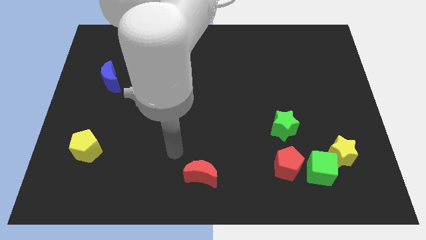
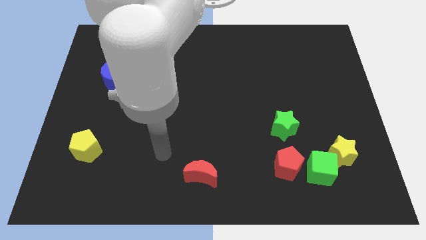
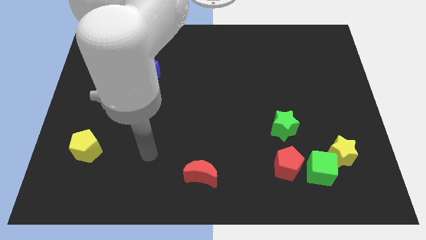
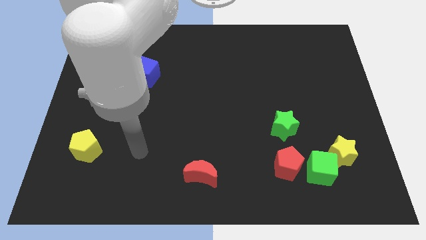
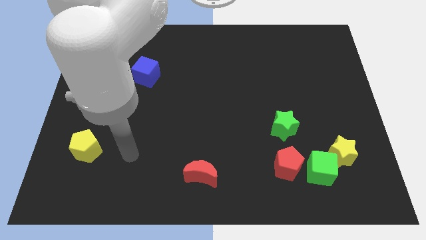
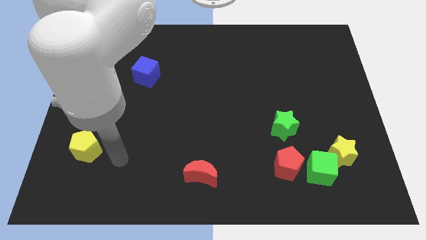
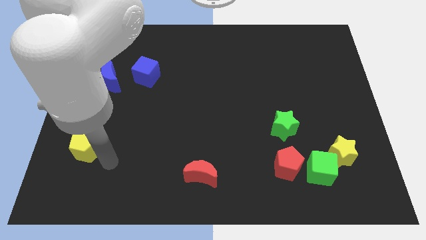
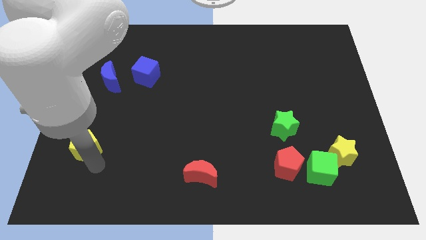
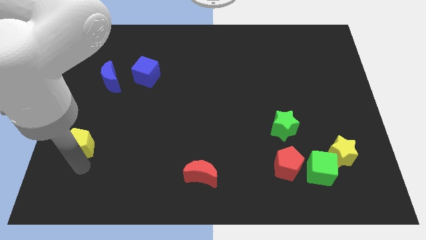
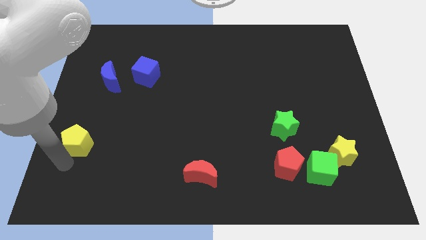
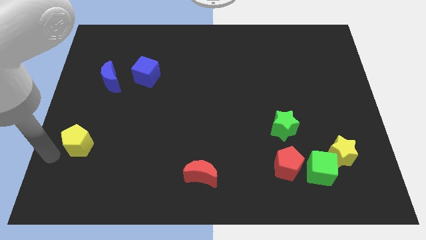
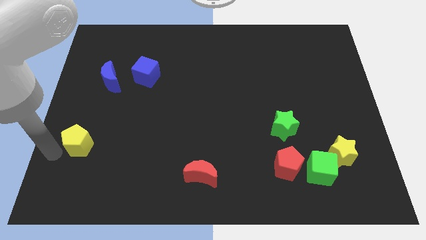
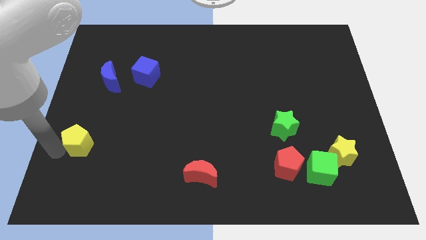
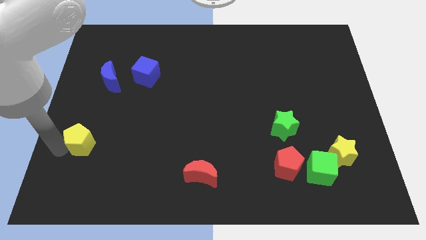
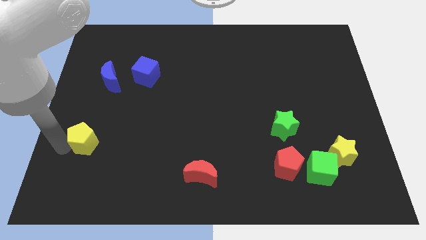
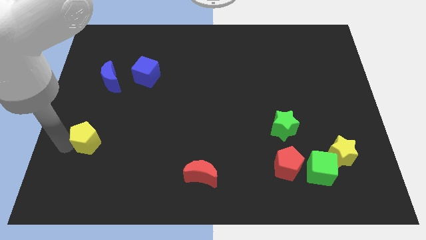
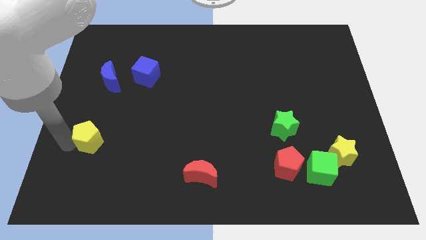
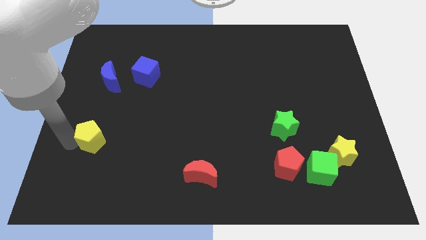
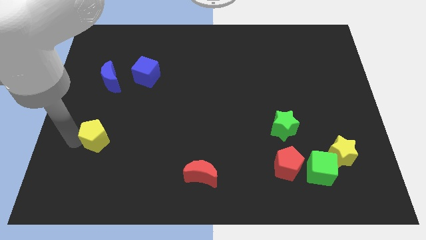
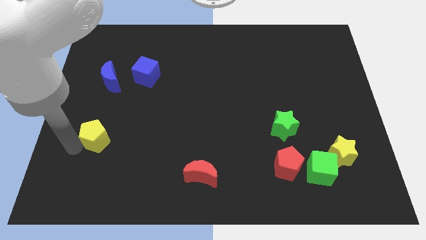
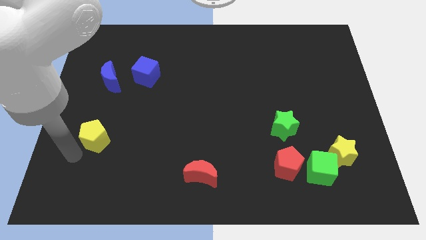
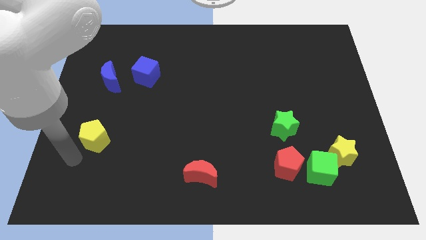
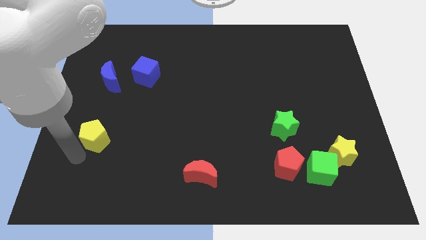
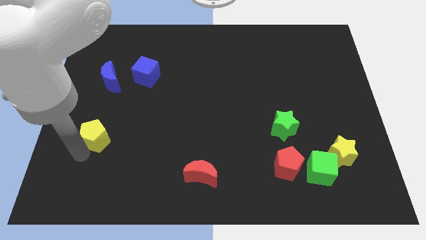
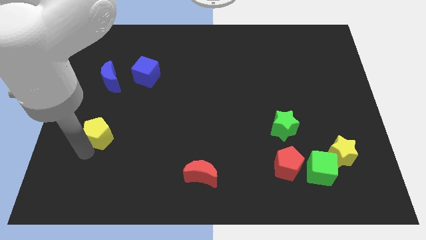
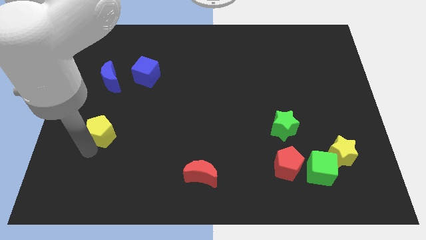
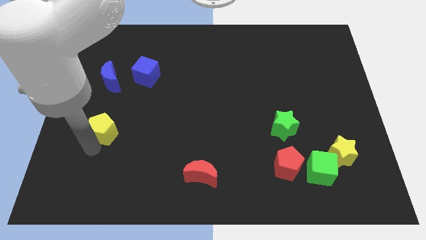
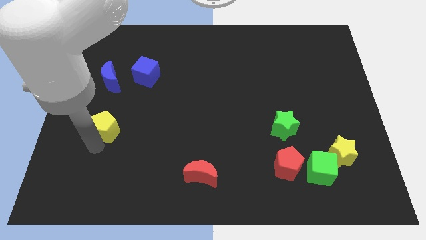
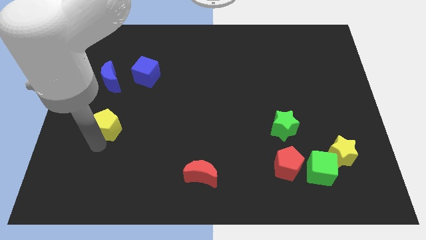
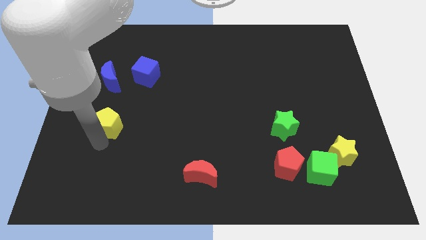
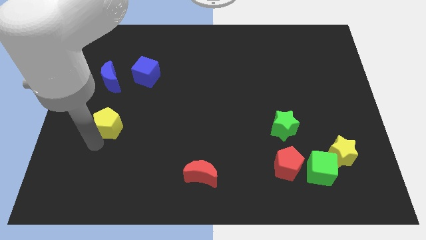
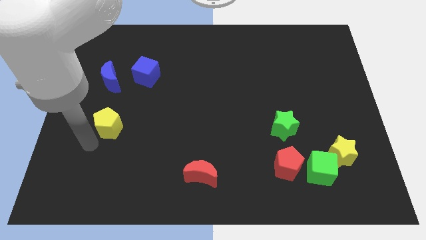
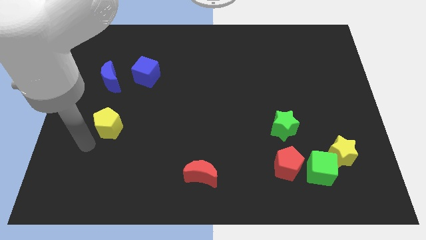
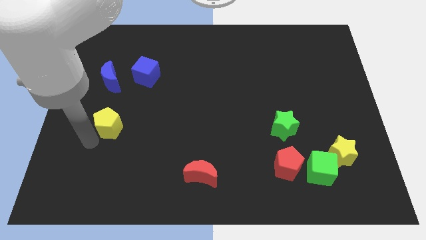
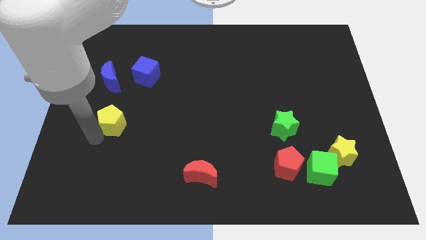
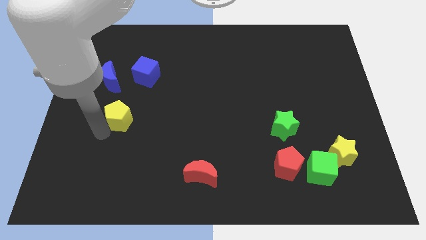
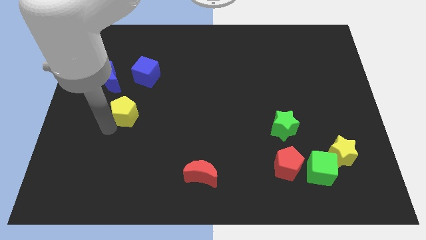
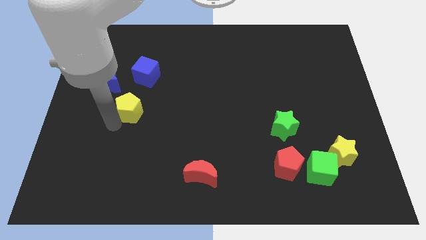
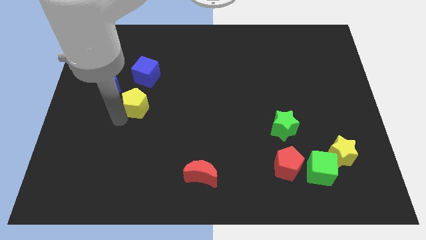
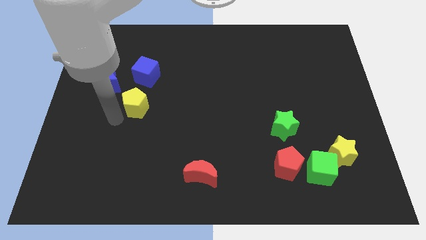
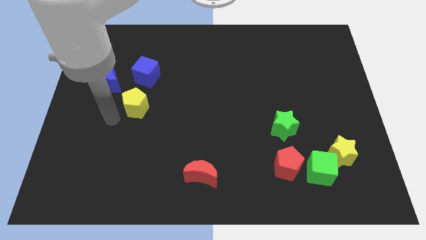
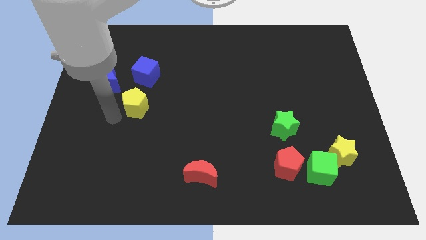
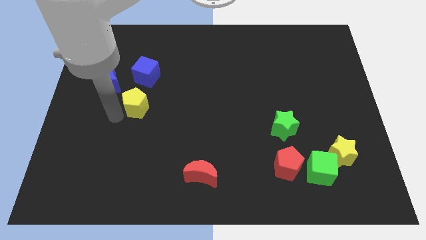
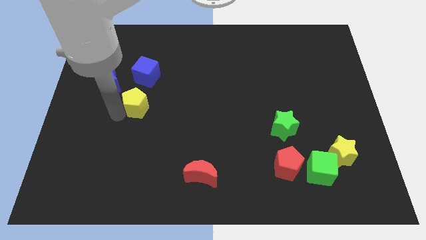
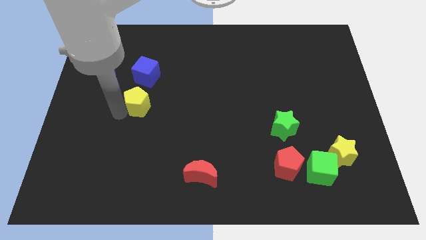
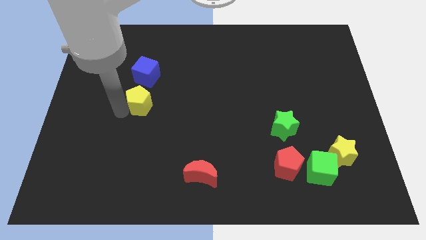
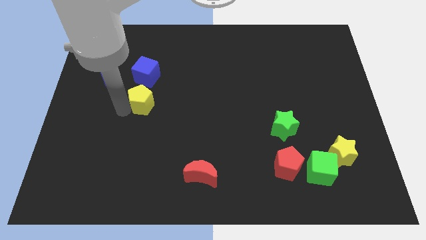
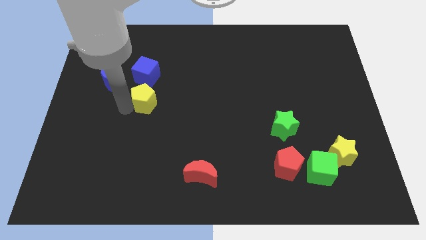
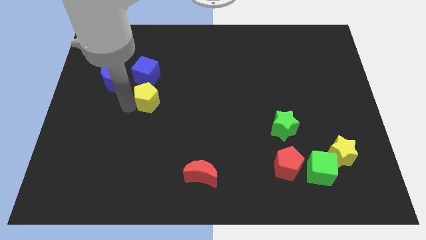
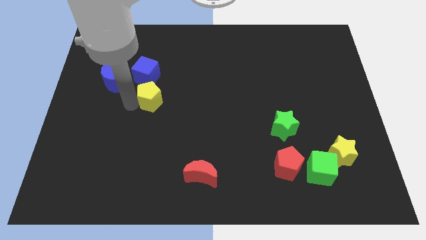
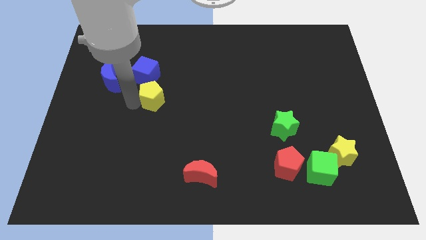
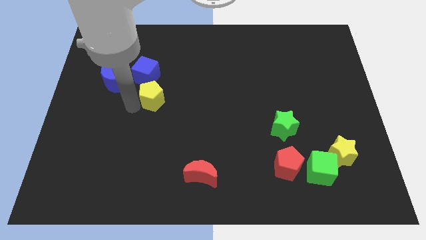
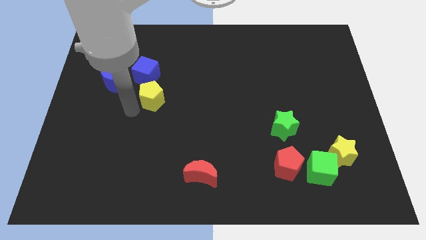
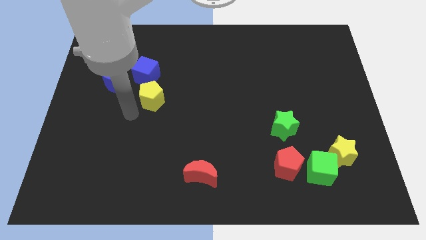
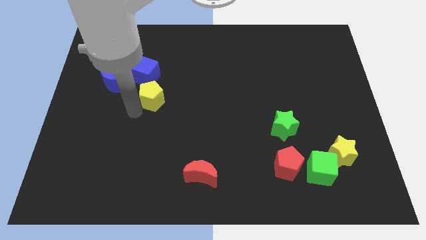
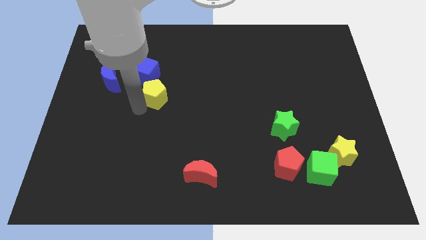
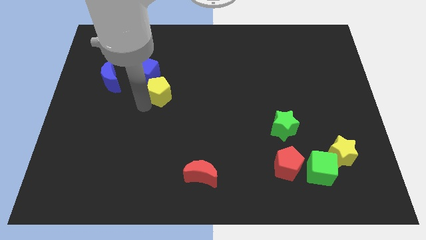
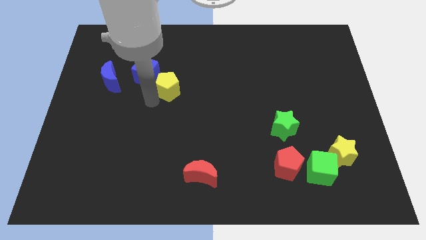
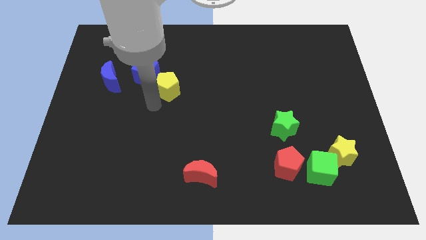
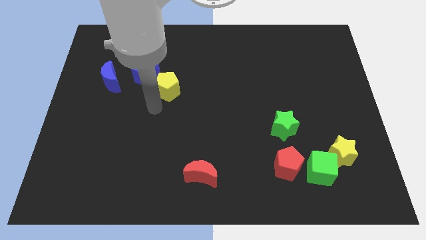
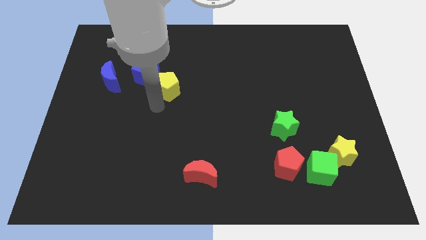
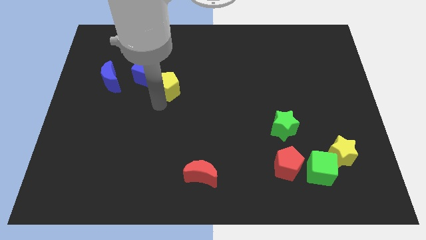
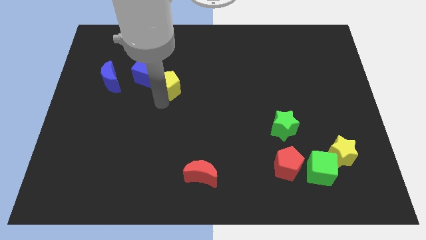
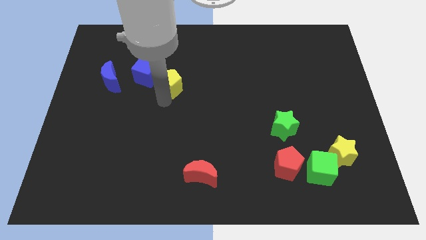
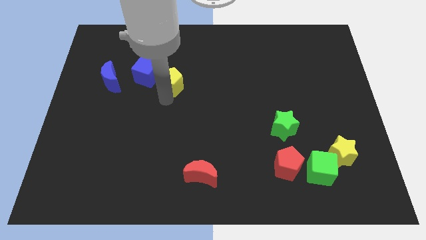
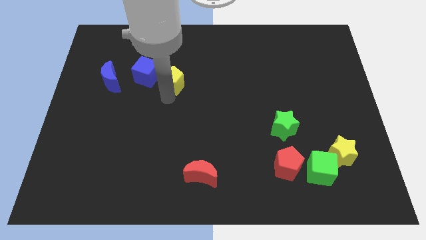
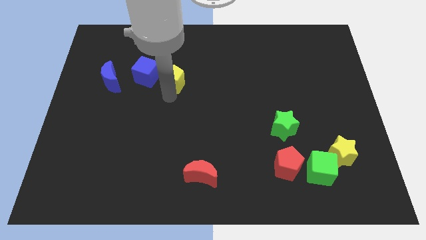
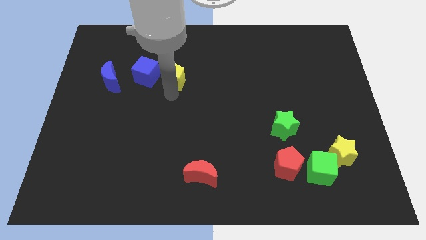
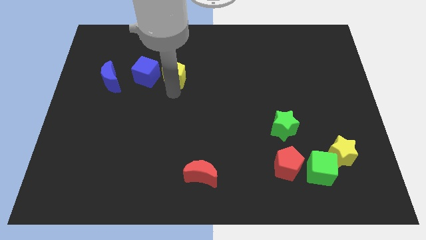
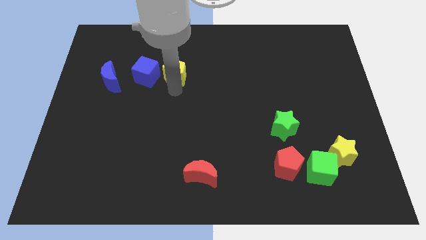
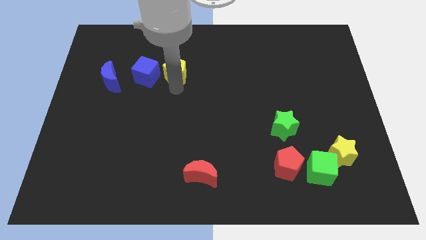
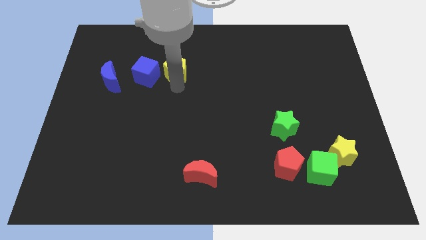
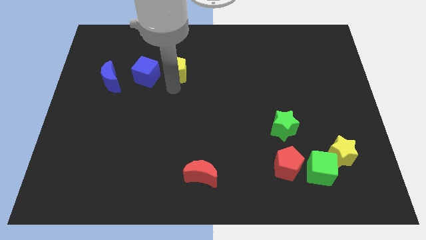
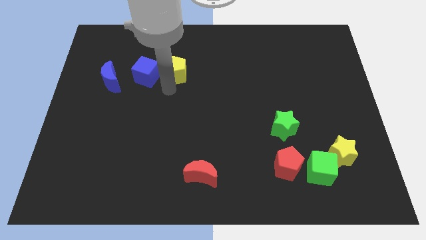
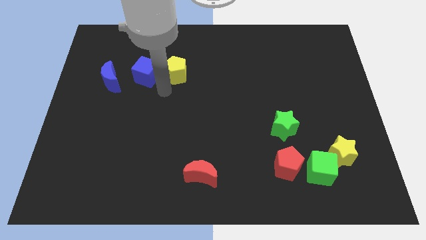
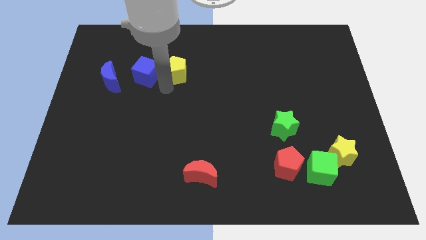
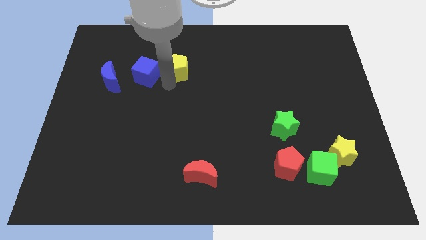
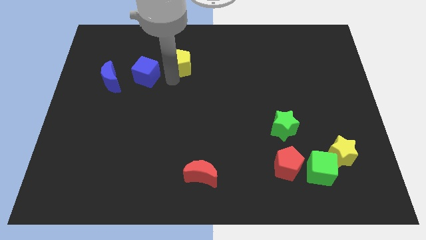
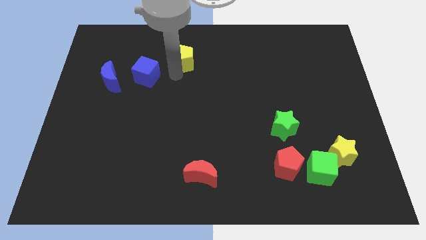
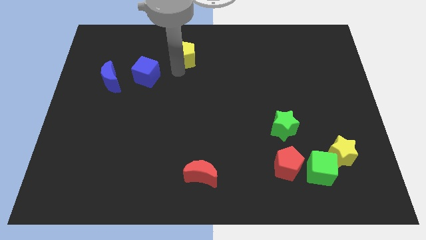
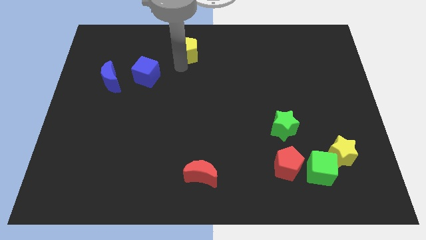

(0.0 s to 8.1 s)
push the yellow pentagon to the top side
